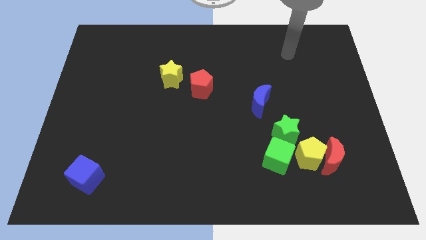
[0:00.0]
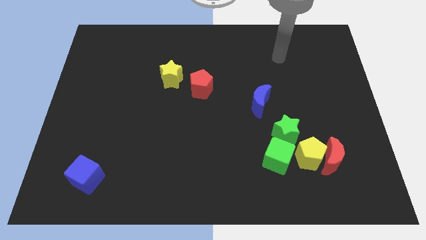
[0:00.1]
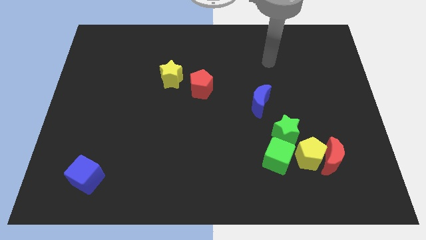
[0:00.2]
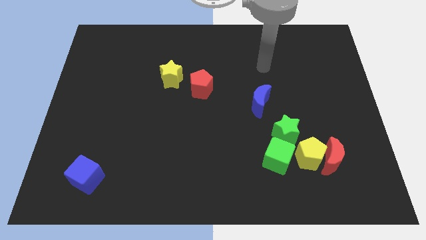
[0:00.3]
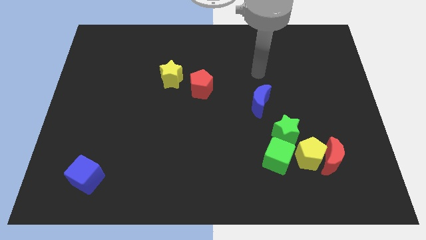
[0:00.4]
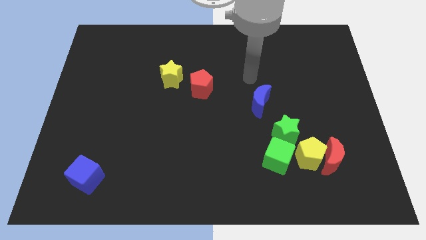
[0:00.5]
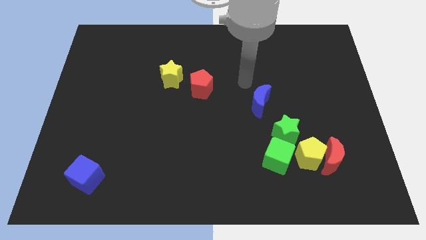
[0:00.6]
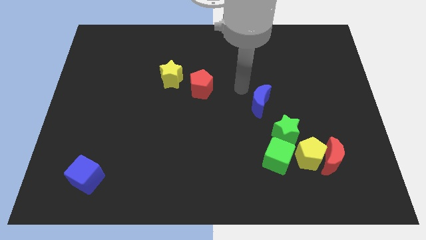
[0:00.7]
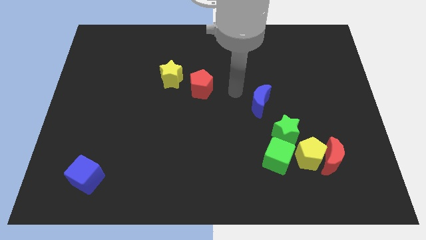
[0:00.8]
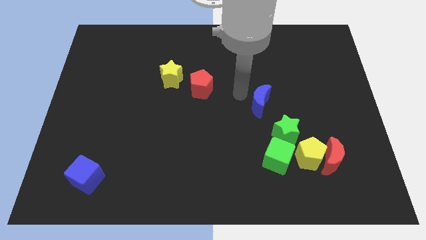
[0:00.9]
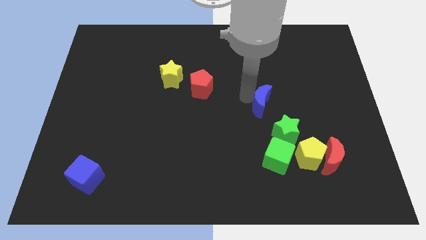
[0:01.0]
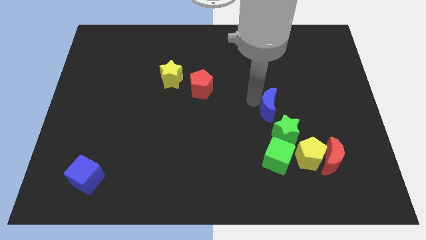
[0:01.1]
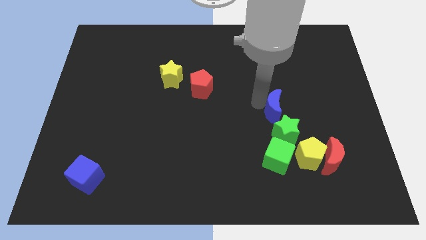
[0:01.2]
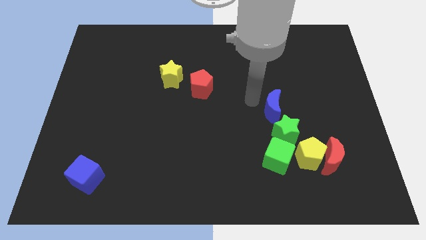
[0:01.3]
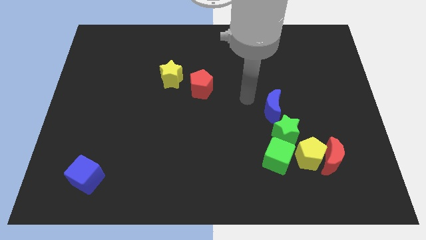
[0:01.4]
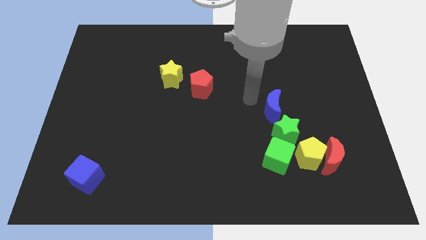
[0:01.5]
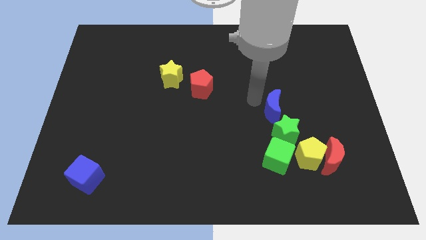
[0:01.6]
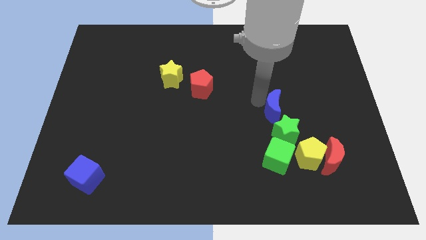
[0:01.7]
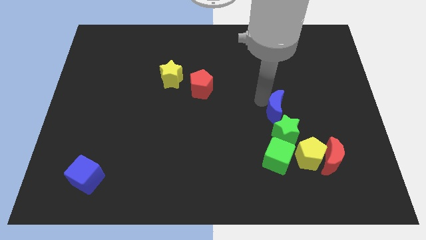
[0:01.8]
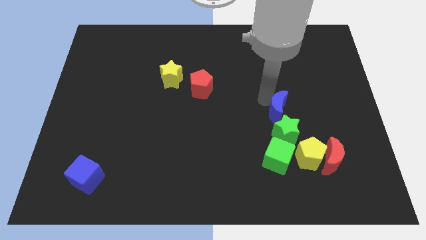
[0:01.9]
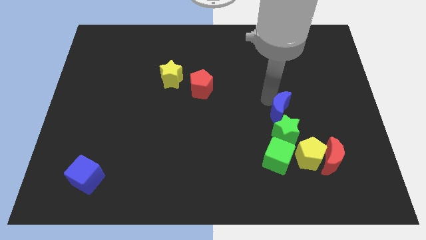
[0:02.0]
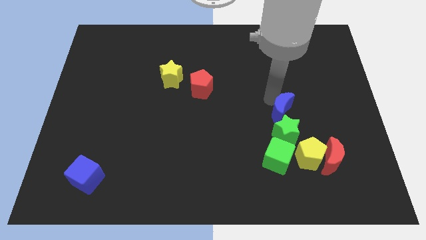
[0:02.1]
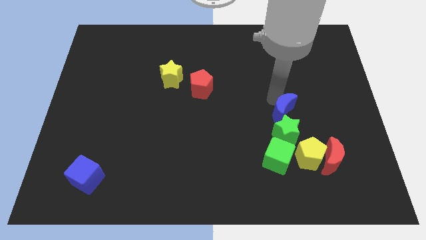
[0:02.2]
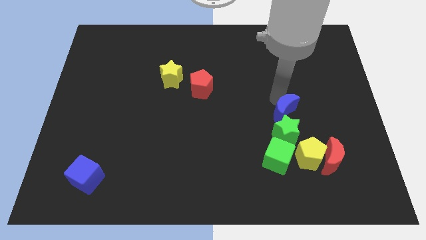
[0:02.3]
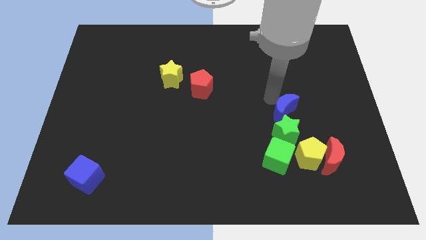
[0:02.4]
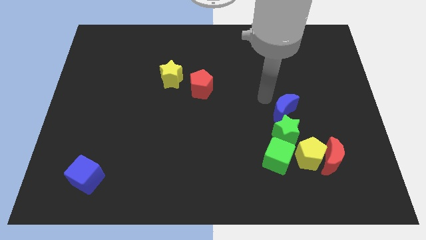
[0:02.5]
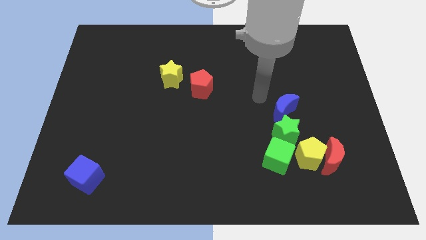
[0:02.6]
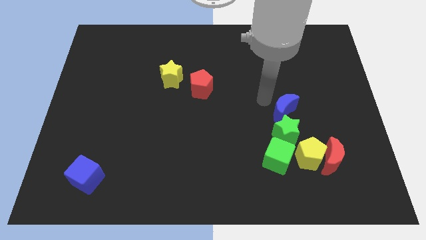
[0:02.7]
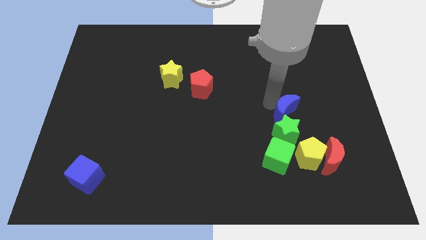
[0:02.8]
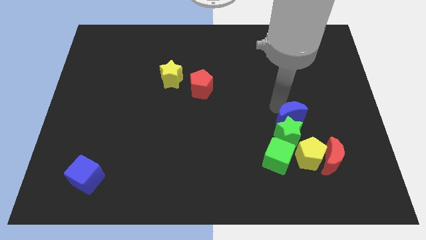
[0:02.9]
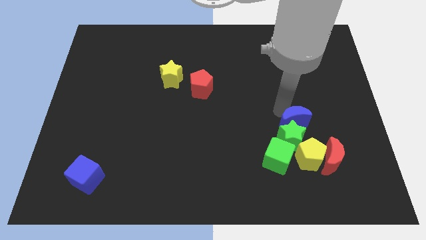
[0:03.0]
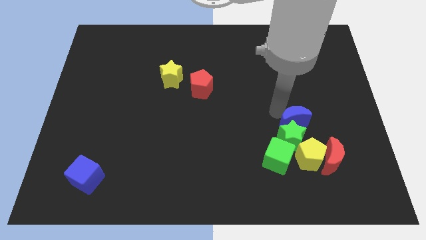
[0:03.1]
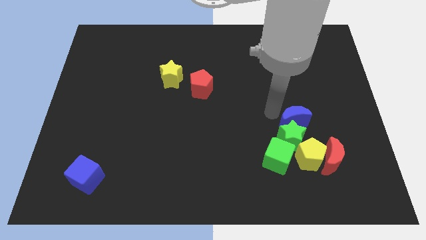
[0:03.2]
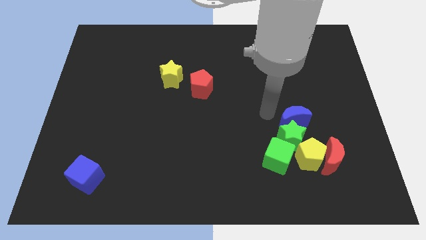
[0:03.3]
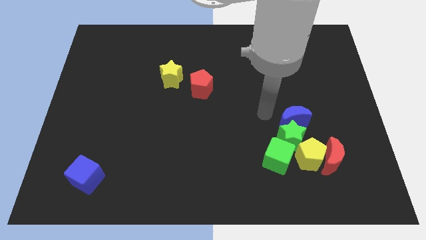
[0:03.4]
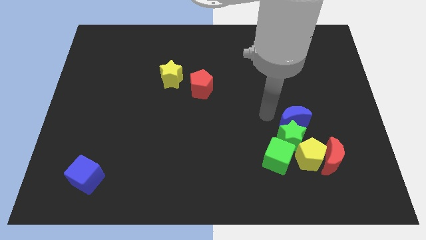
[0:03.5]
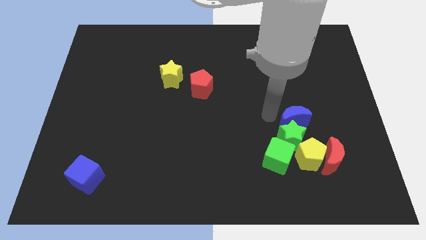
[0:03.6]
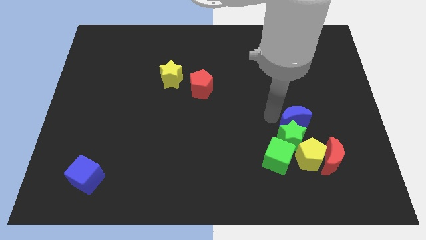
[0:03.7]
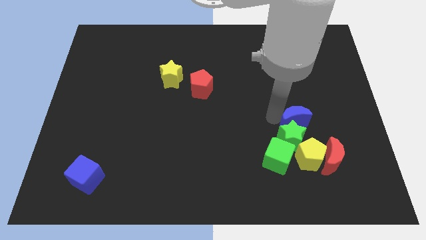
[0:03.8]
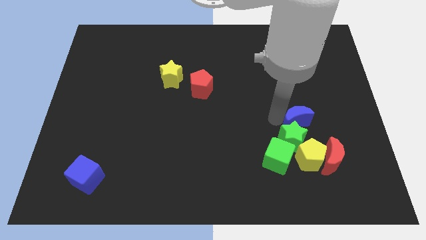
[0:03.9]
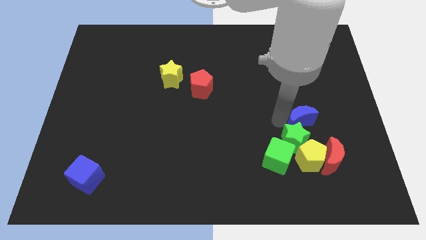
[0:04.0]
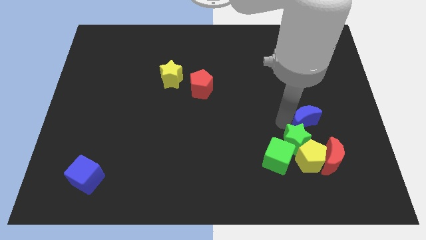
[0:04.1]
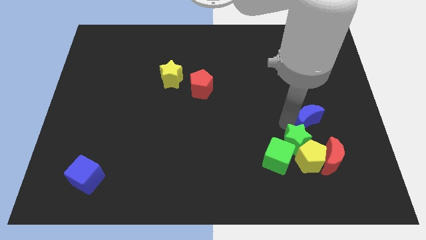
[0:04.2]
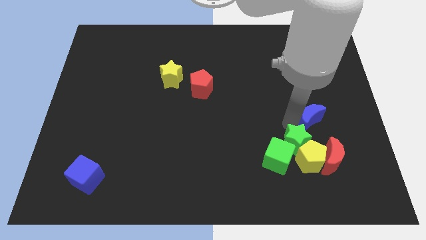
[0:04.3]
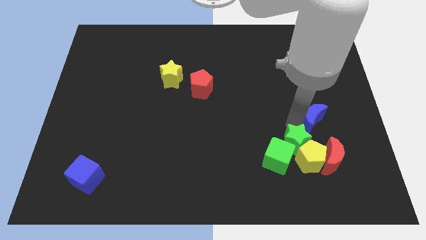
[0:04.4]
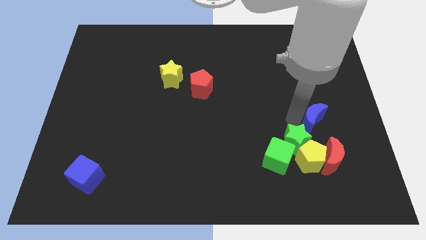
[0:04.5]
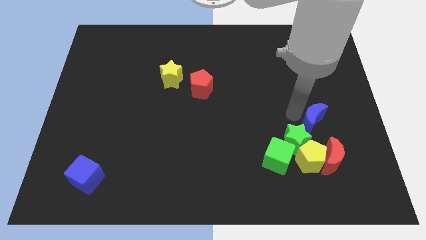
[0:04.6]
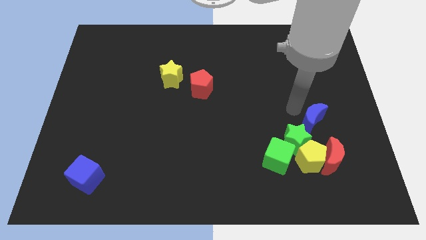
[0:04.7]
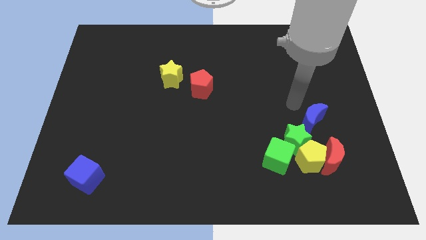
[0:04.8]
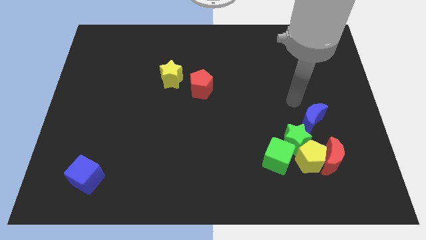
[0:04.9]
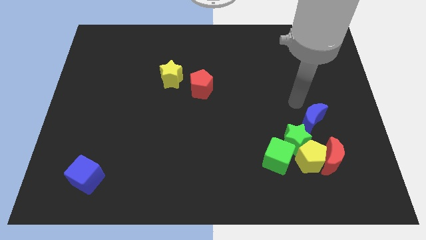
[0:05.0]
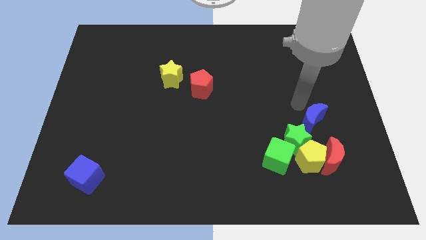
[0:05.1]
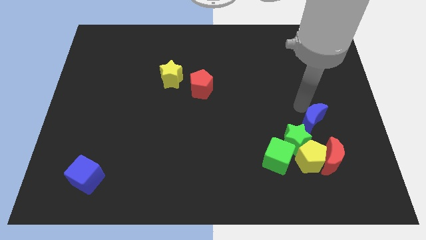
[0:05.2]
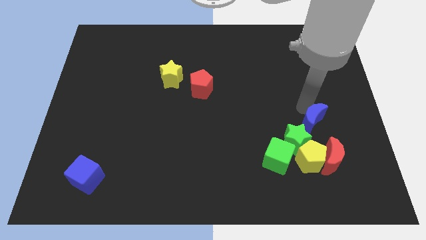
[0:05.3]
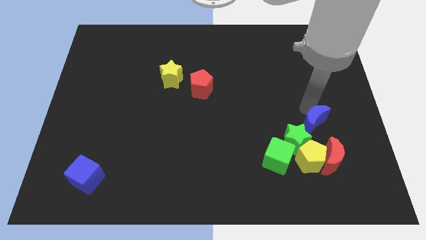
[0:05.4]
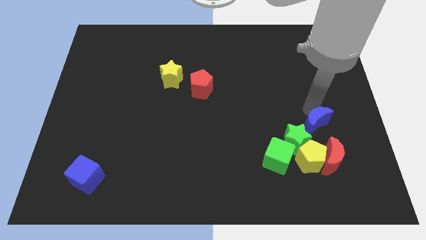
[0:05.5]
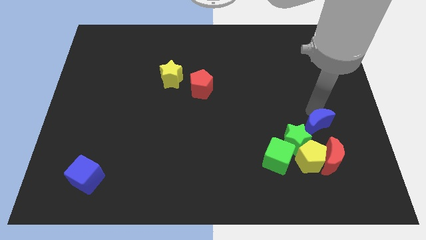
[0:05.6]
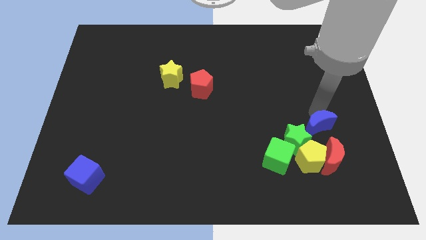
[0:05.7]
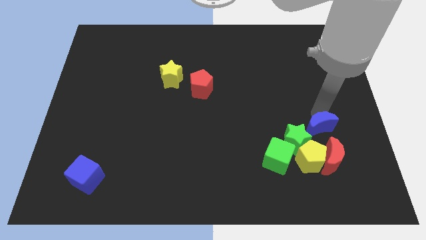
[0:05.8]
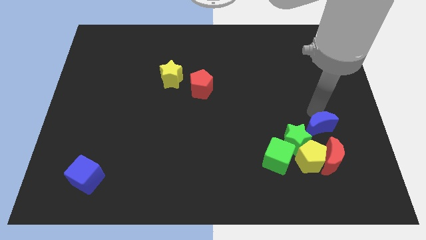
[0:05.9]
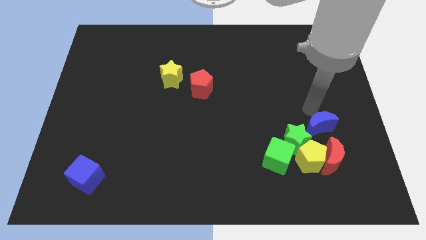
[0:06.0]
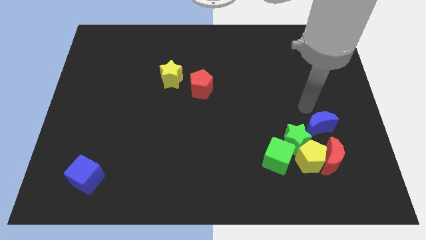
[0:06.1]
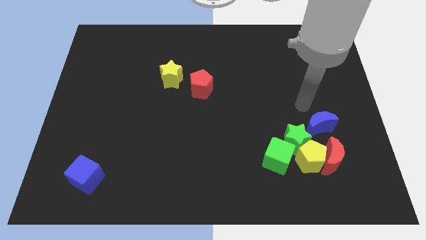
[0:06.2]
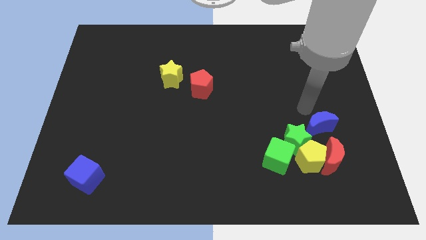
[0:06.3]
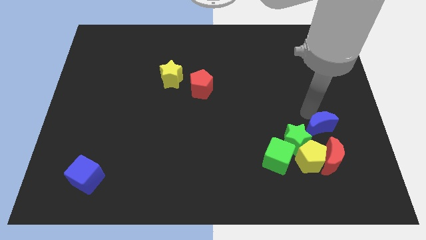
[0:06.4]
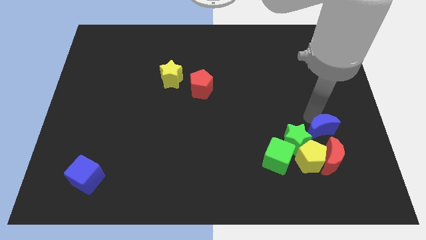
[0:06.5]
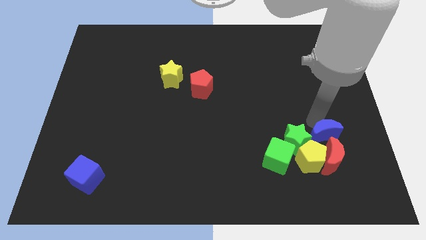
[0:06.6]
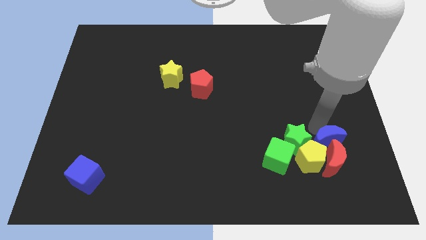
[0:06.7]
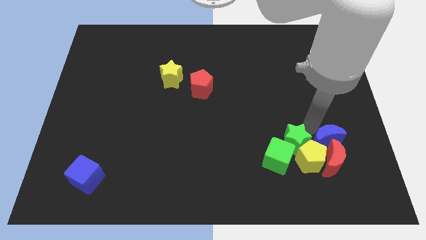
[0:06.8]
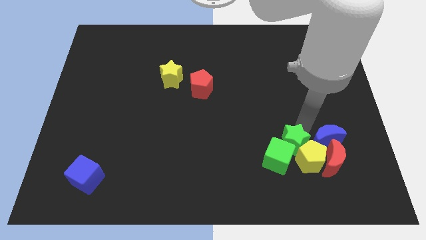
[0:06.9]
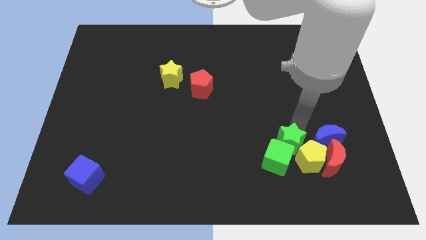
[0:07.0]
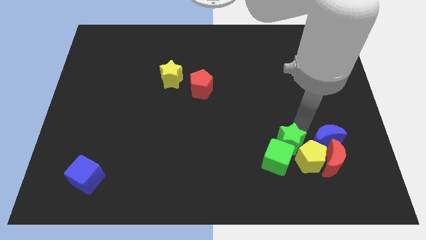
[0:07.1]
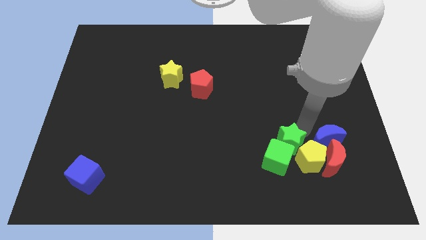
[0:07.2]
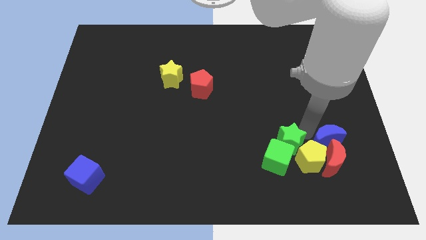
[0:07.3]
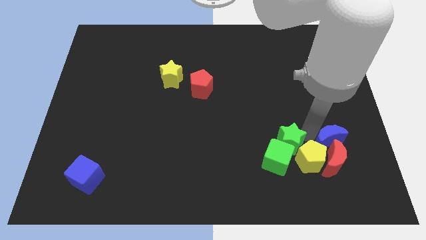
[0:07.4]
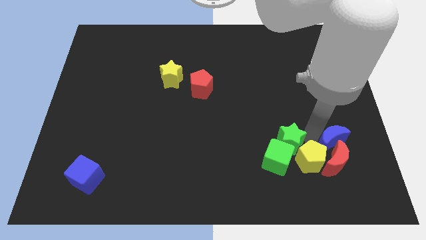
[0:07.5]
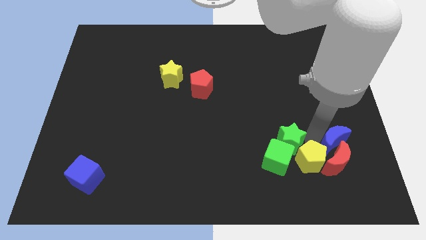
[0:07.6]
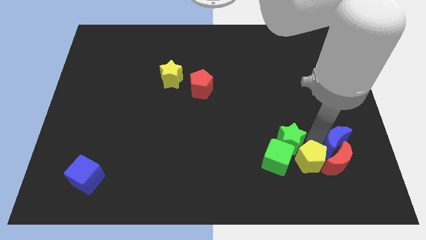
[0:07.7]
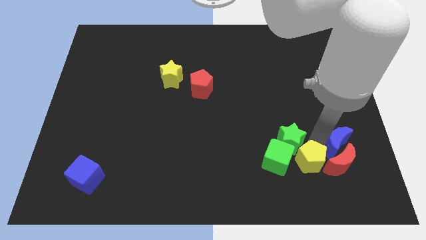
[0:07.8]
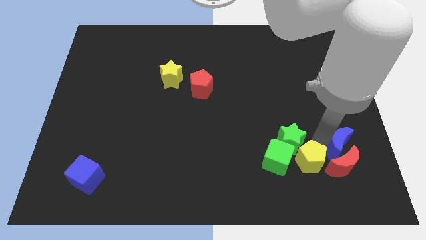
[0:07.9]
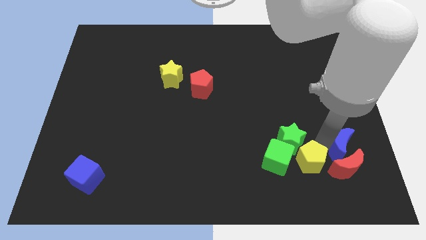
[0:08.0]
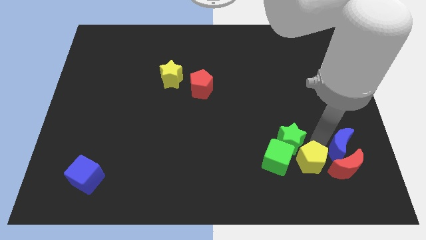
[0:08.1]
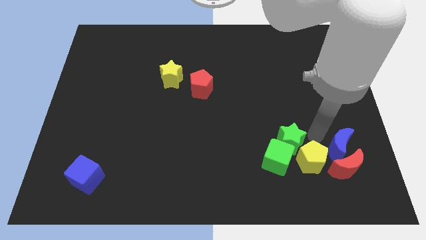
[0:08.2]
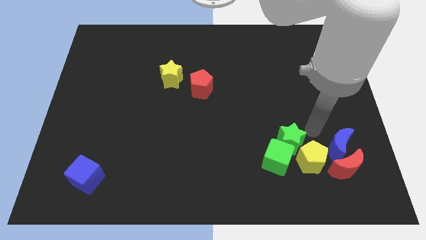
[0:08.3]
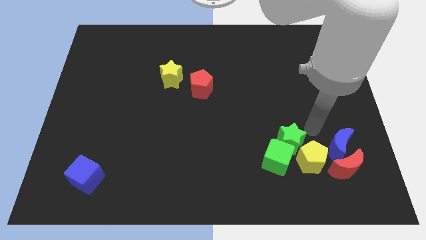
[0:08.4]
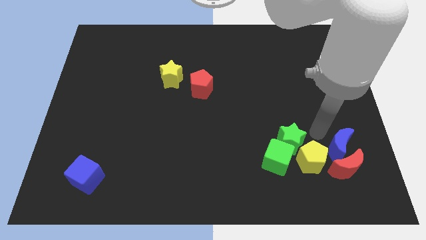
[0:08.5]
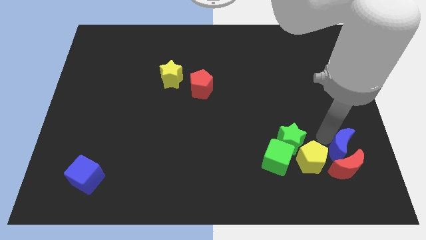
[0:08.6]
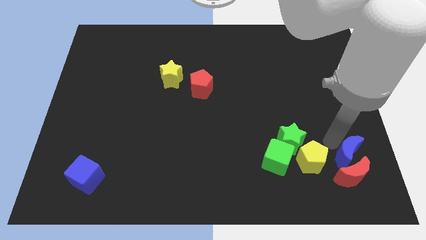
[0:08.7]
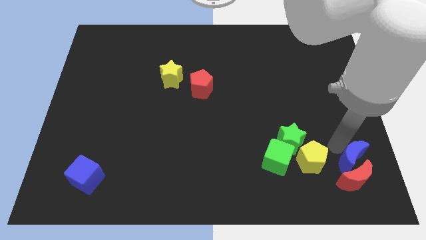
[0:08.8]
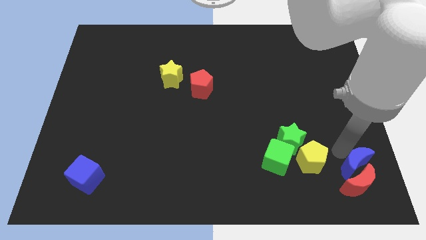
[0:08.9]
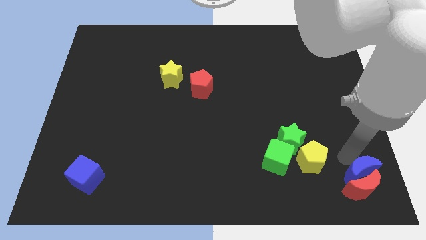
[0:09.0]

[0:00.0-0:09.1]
move the blue moon to the lower right corner
